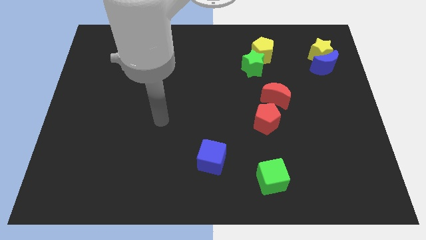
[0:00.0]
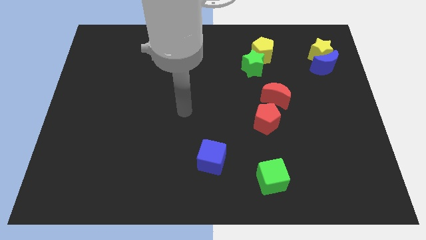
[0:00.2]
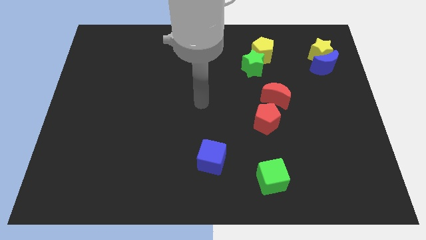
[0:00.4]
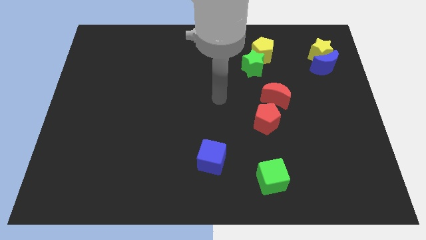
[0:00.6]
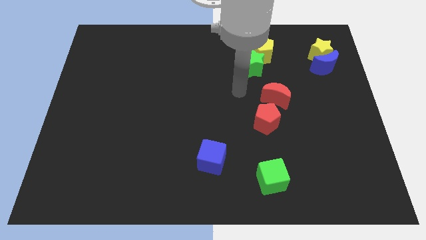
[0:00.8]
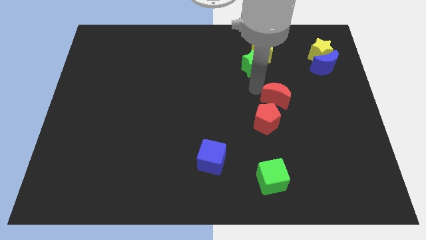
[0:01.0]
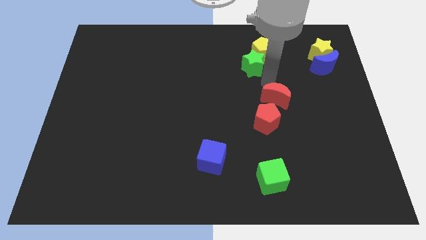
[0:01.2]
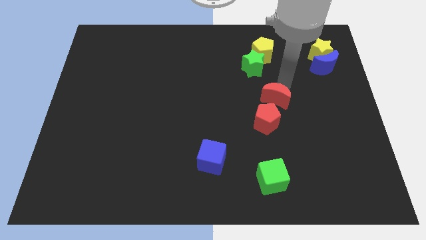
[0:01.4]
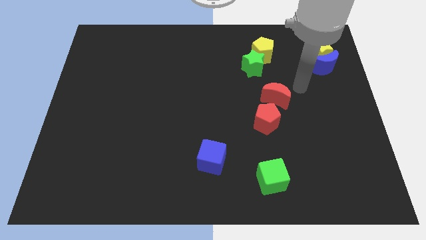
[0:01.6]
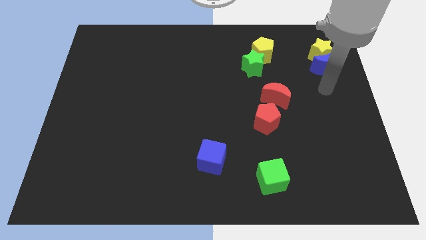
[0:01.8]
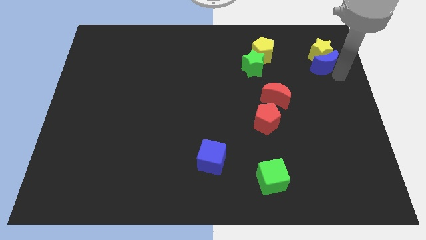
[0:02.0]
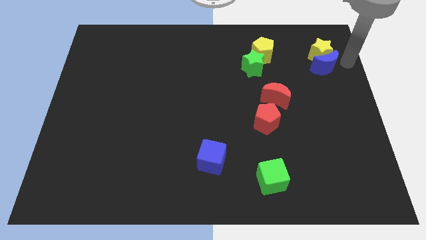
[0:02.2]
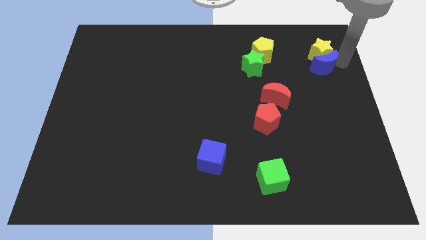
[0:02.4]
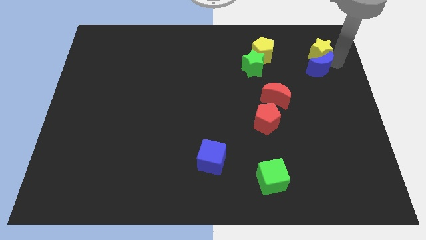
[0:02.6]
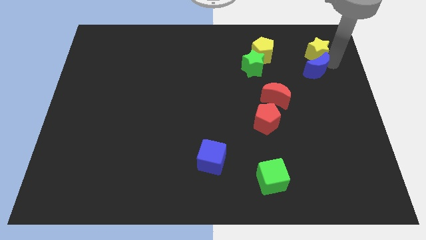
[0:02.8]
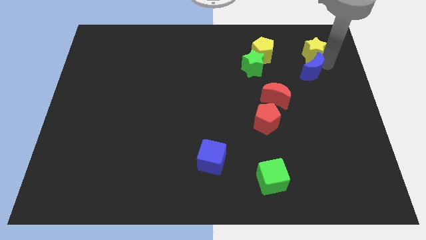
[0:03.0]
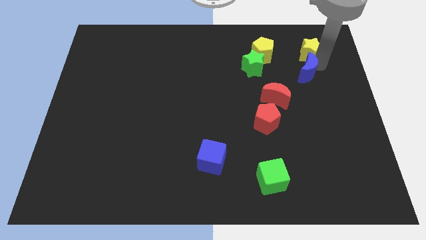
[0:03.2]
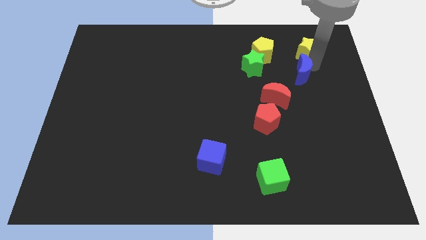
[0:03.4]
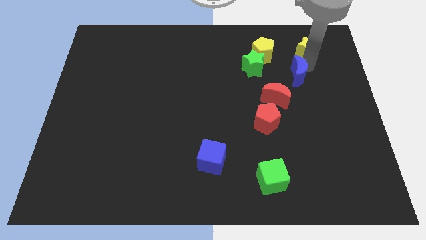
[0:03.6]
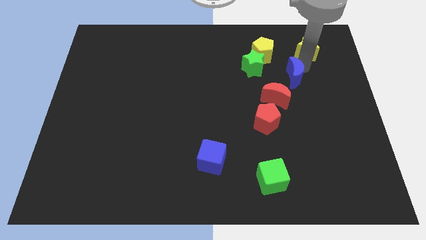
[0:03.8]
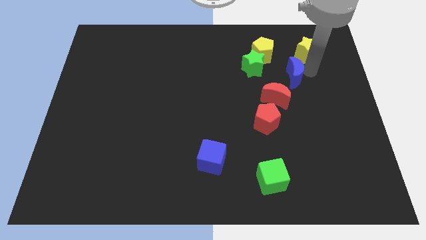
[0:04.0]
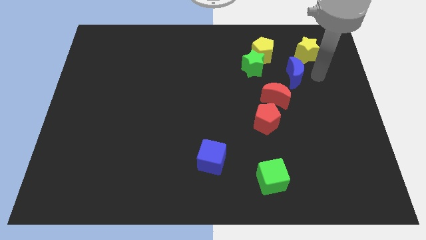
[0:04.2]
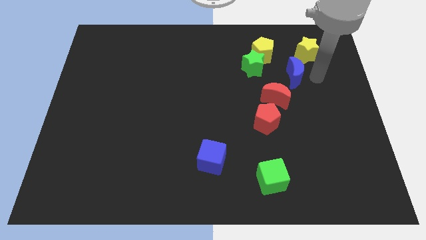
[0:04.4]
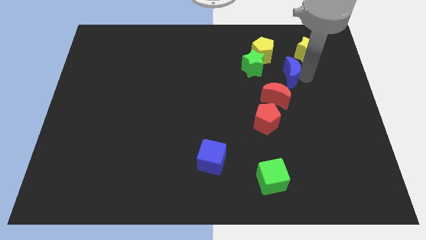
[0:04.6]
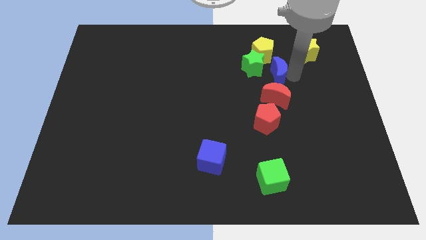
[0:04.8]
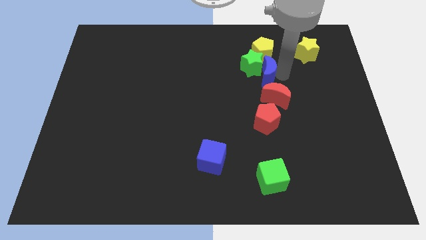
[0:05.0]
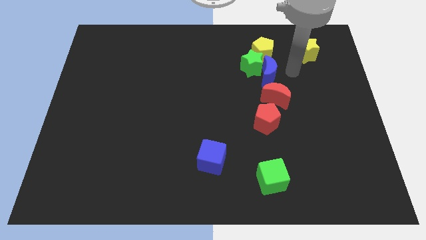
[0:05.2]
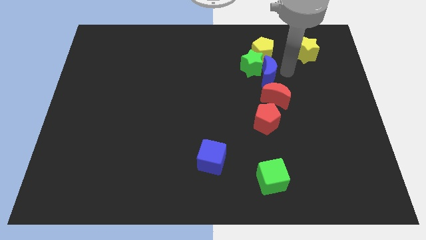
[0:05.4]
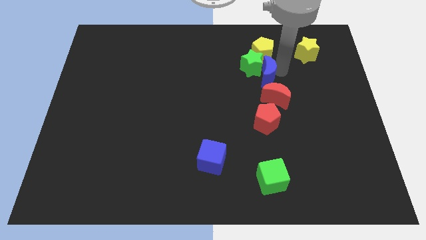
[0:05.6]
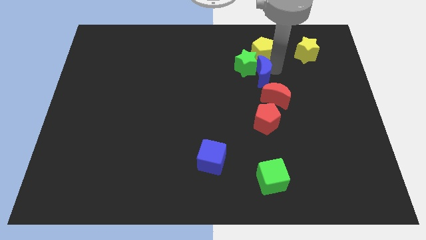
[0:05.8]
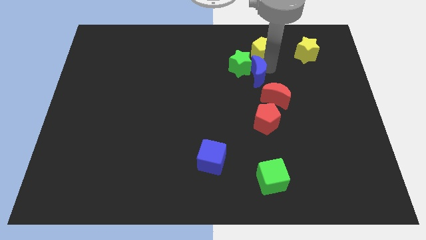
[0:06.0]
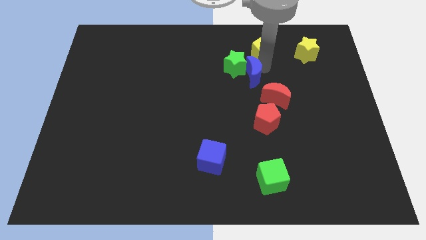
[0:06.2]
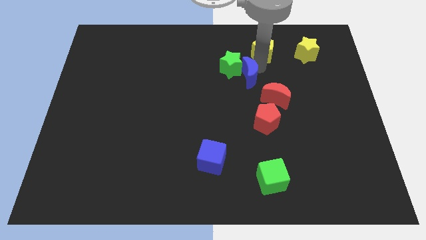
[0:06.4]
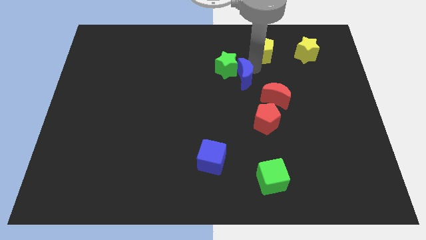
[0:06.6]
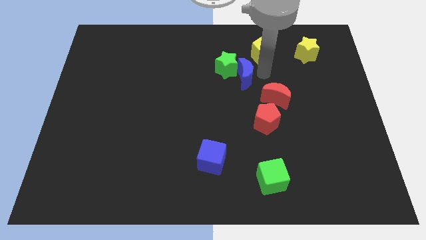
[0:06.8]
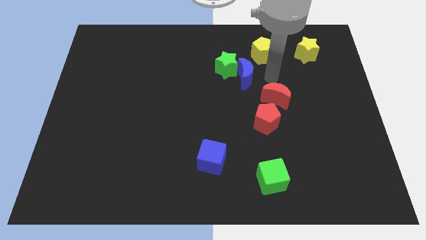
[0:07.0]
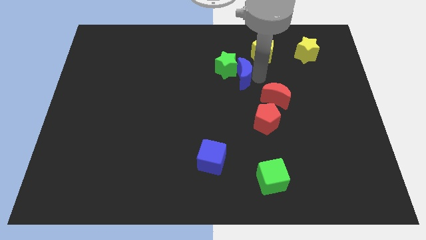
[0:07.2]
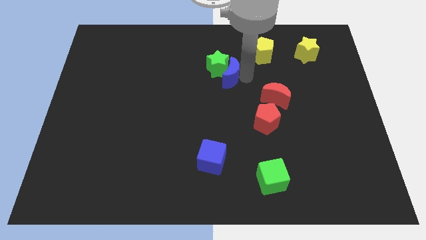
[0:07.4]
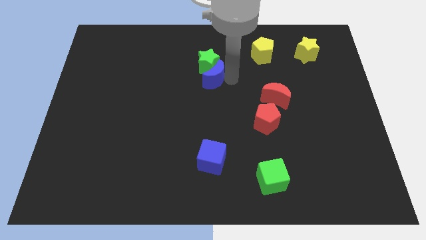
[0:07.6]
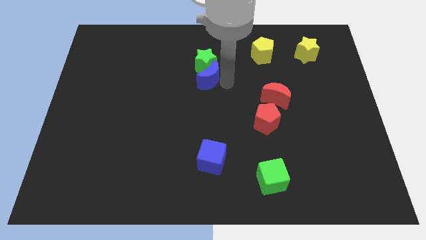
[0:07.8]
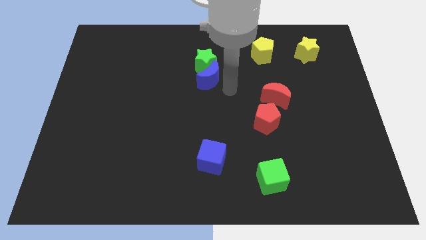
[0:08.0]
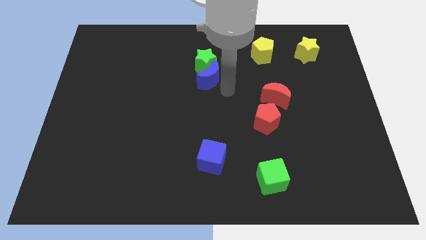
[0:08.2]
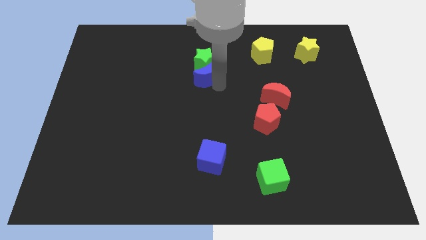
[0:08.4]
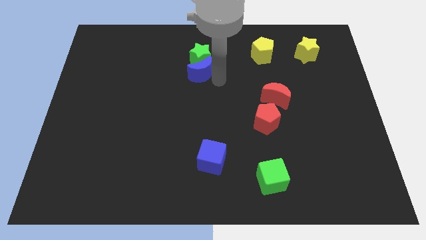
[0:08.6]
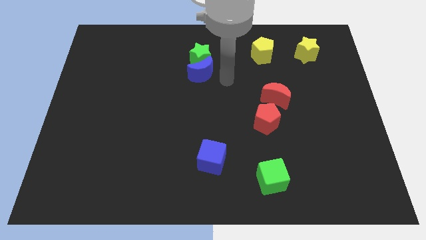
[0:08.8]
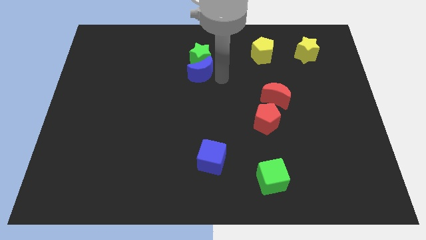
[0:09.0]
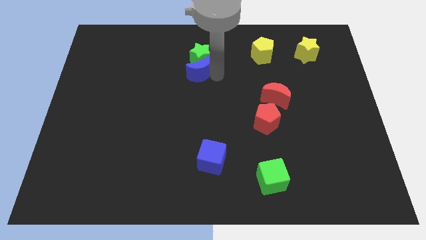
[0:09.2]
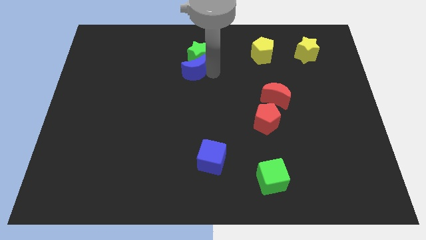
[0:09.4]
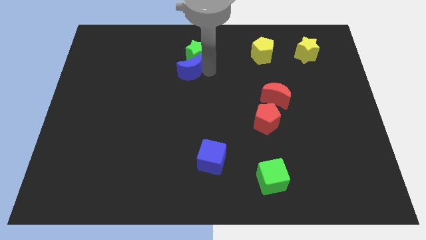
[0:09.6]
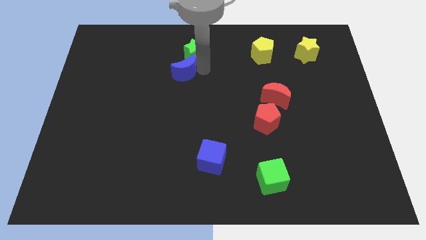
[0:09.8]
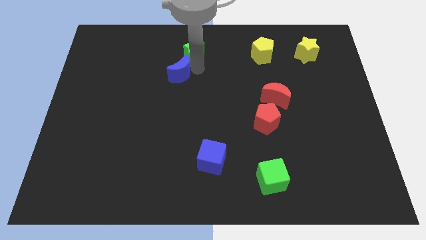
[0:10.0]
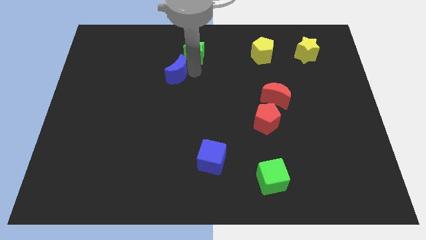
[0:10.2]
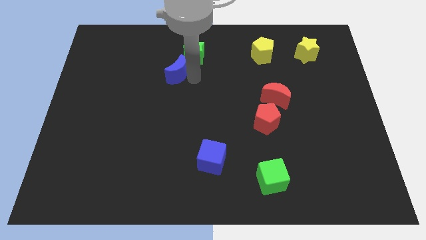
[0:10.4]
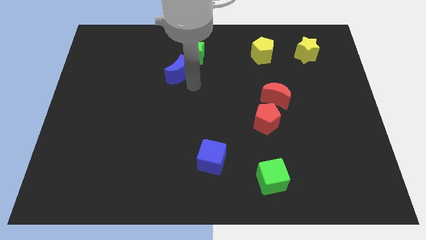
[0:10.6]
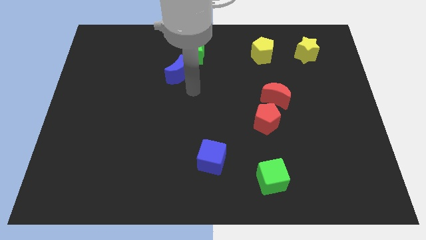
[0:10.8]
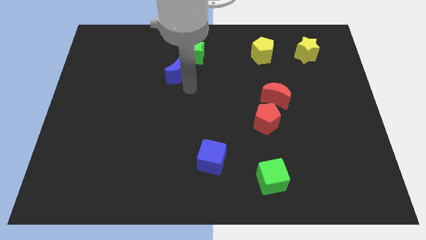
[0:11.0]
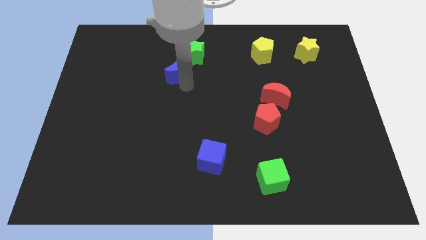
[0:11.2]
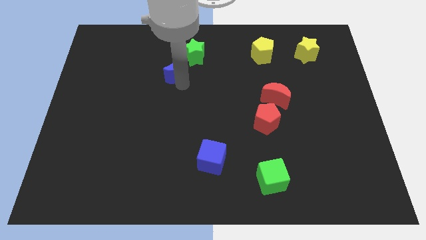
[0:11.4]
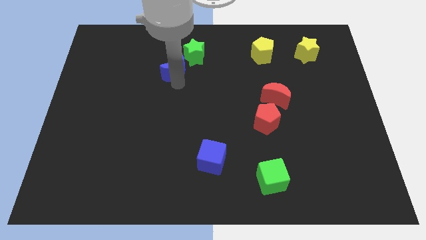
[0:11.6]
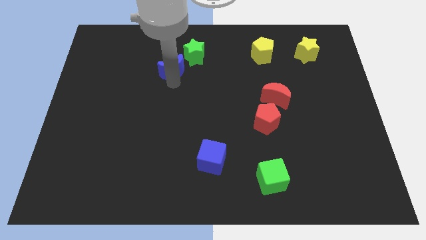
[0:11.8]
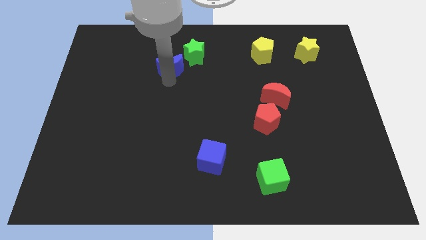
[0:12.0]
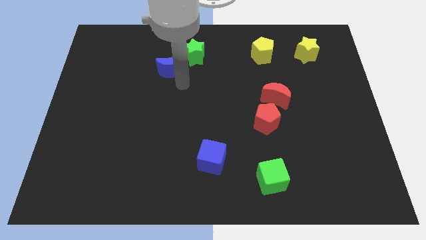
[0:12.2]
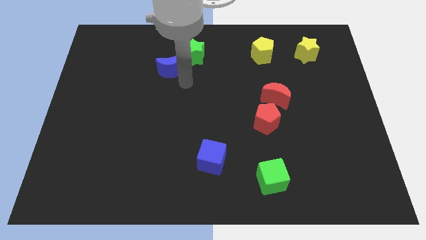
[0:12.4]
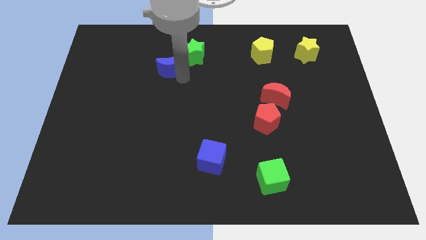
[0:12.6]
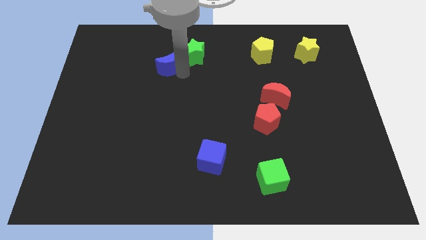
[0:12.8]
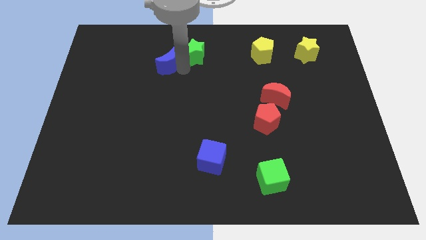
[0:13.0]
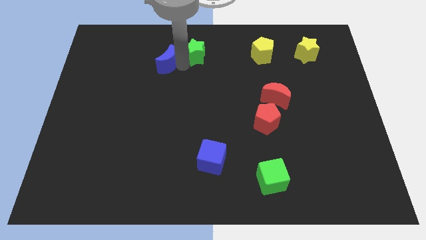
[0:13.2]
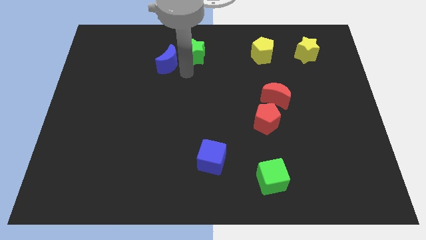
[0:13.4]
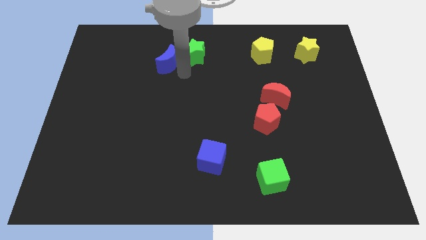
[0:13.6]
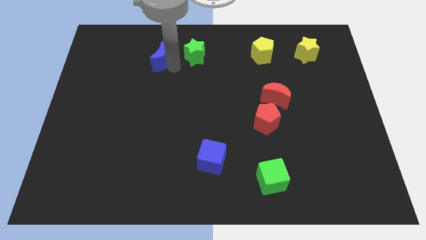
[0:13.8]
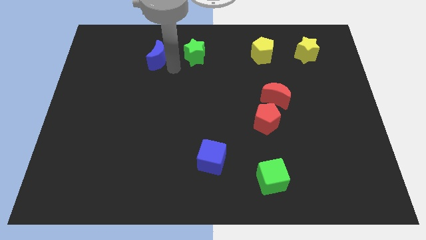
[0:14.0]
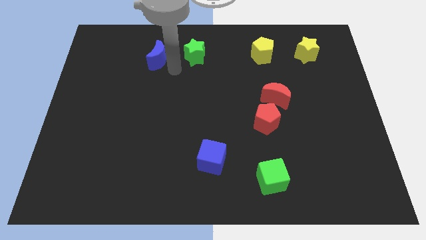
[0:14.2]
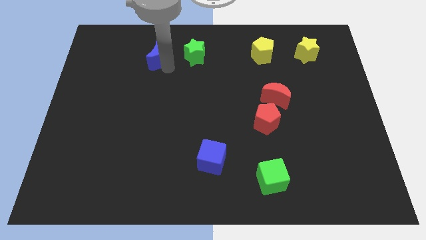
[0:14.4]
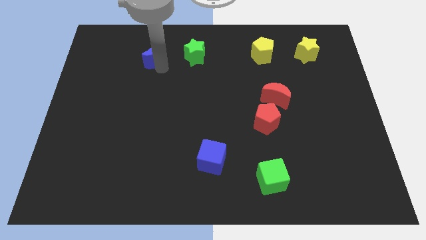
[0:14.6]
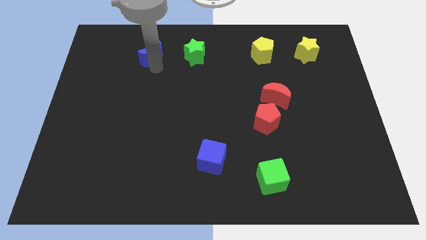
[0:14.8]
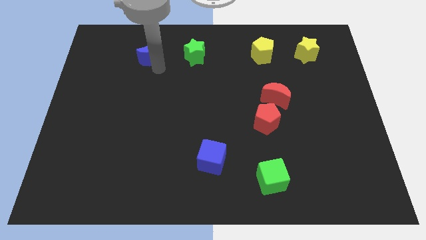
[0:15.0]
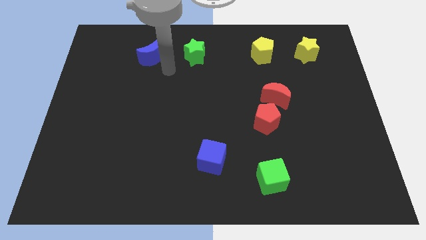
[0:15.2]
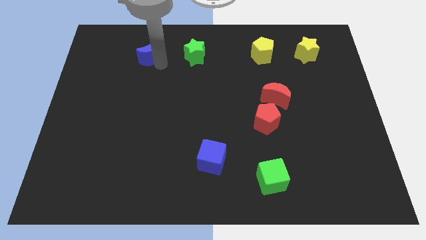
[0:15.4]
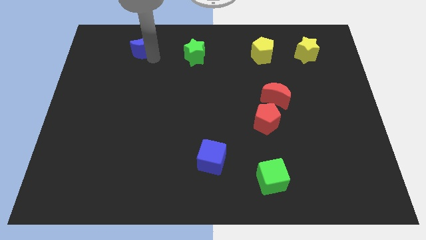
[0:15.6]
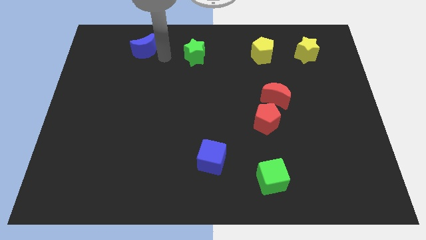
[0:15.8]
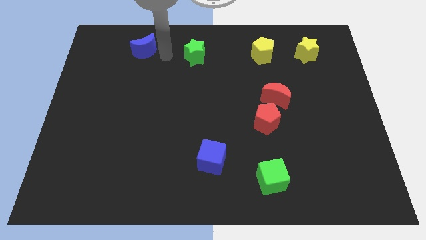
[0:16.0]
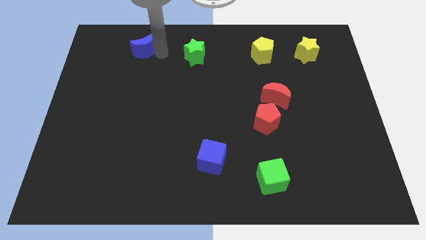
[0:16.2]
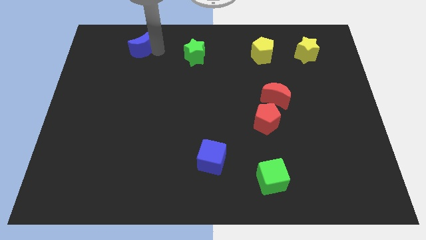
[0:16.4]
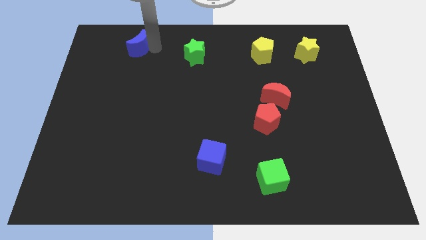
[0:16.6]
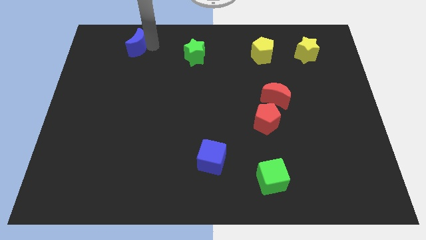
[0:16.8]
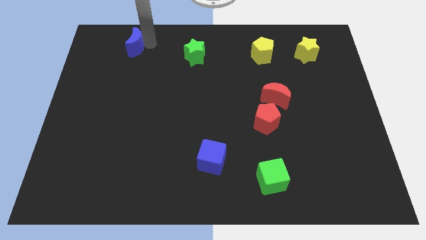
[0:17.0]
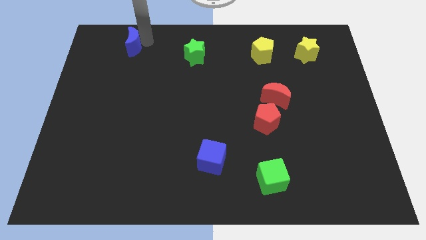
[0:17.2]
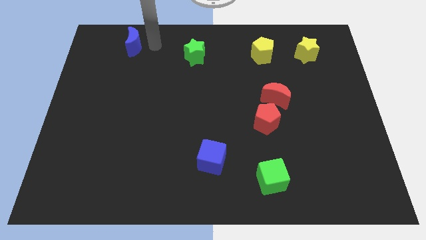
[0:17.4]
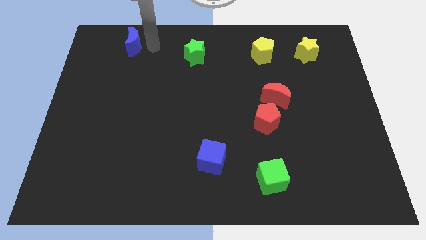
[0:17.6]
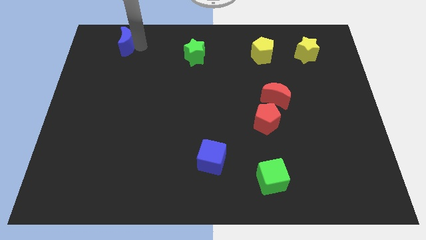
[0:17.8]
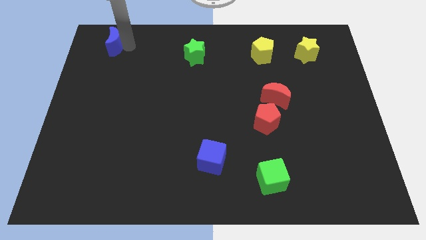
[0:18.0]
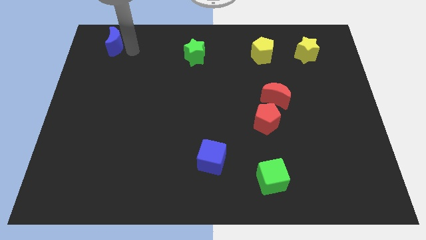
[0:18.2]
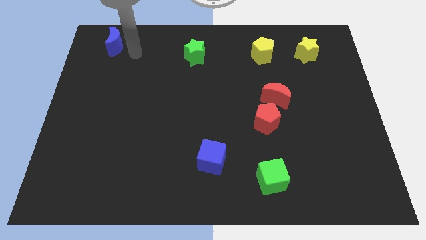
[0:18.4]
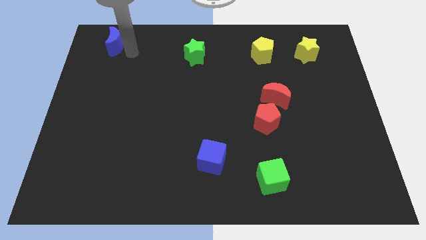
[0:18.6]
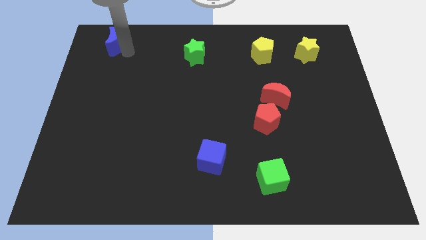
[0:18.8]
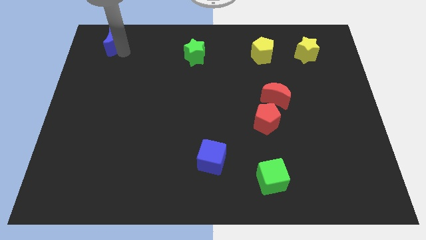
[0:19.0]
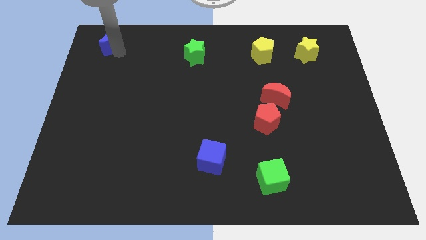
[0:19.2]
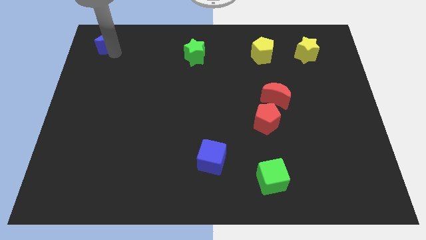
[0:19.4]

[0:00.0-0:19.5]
put the blue moon to the top left corner
